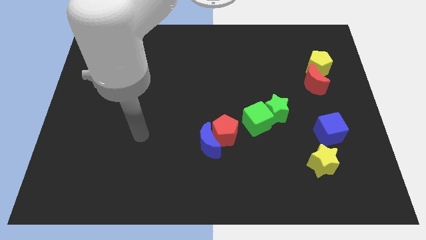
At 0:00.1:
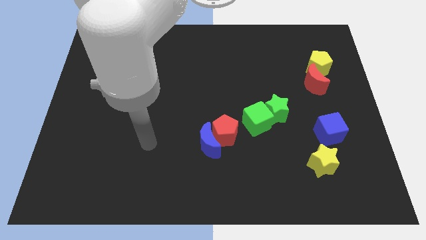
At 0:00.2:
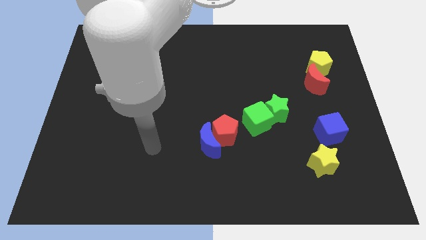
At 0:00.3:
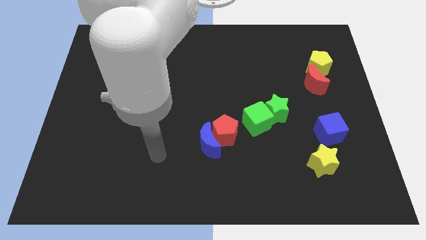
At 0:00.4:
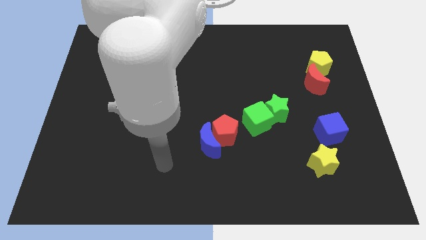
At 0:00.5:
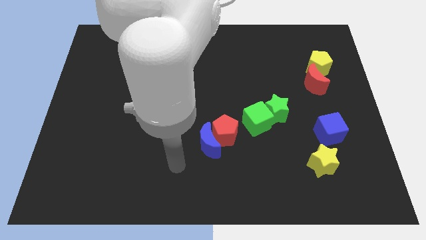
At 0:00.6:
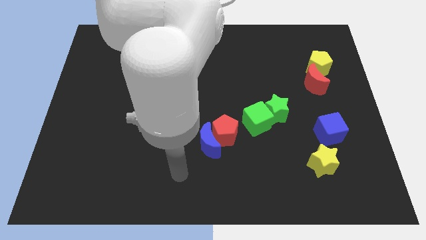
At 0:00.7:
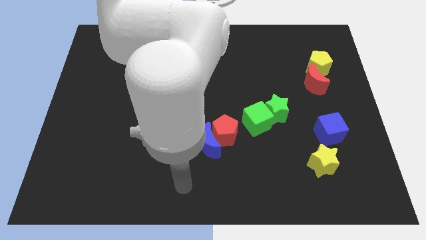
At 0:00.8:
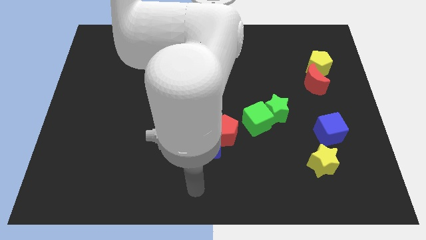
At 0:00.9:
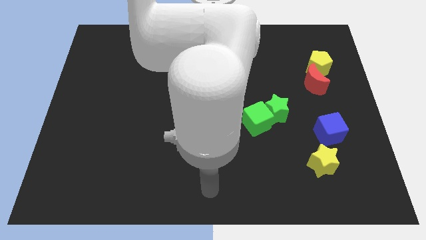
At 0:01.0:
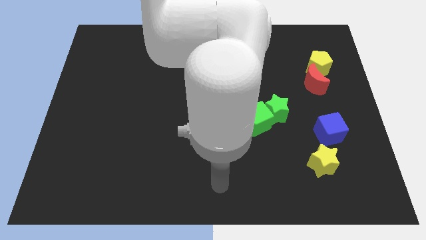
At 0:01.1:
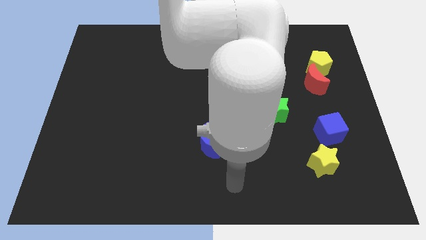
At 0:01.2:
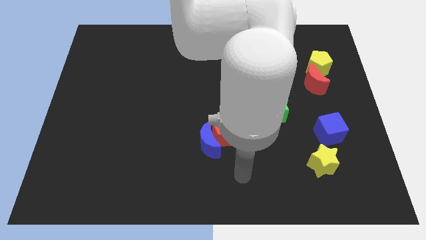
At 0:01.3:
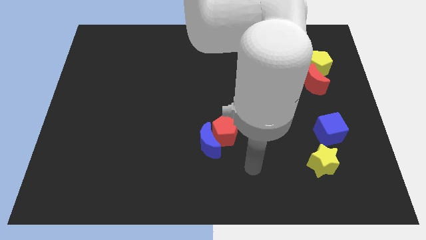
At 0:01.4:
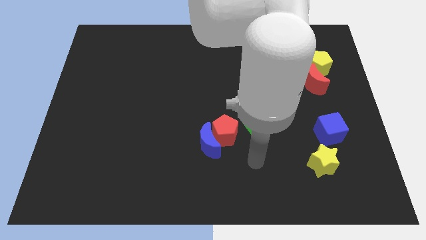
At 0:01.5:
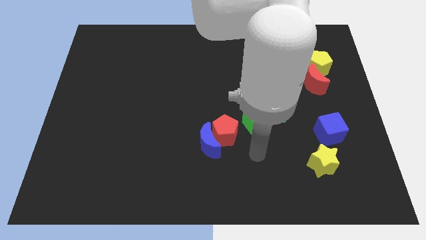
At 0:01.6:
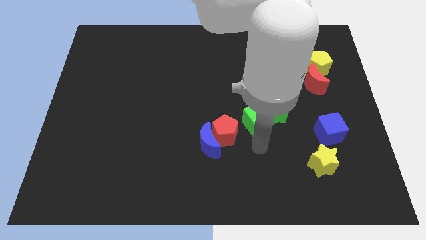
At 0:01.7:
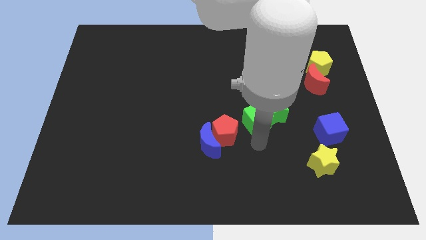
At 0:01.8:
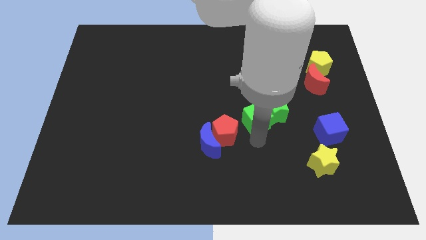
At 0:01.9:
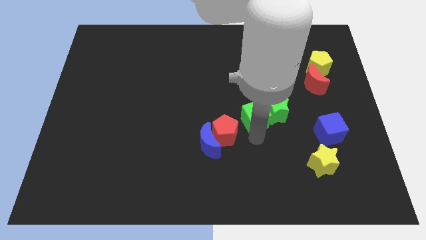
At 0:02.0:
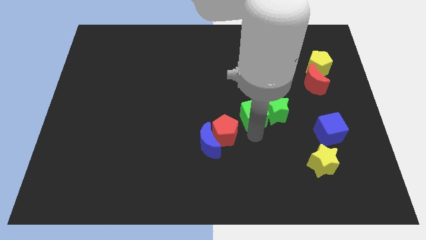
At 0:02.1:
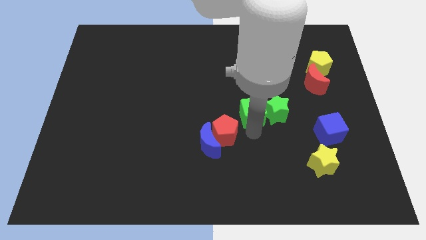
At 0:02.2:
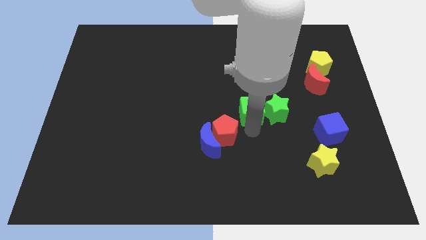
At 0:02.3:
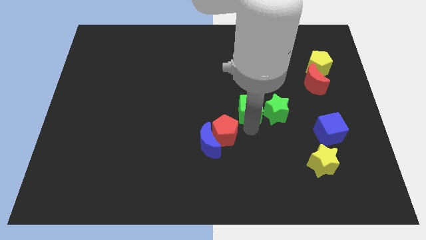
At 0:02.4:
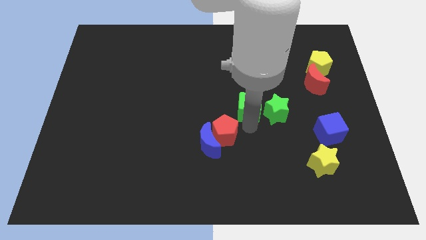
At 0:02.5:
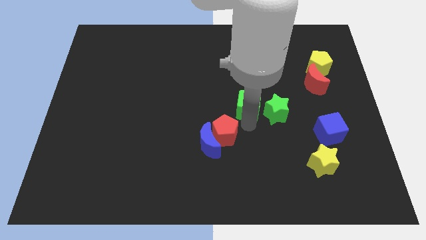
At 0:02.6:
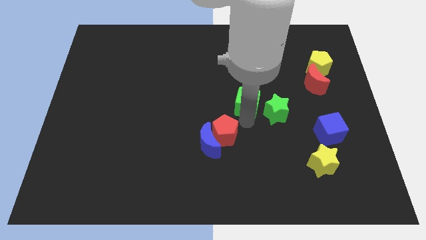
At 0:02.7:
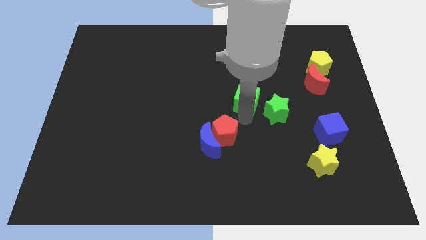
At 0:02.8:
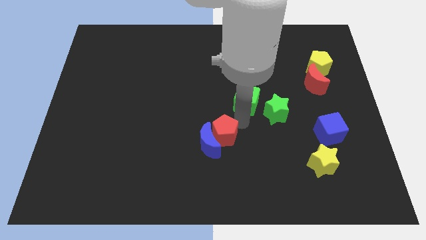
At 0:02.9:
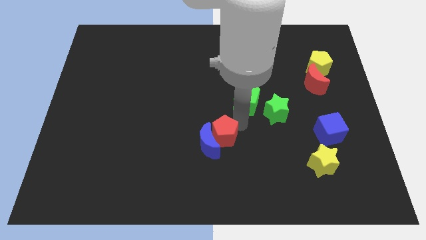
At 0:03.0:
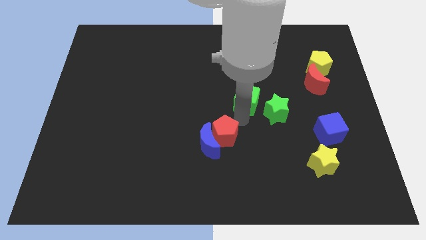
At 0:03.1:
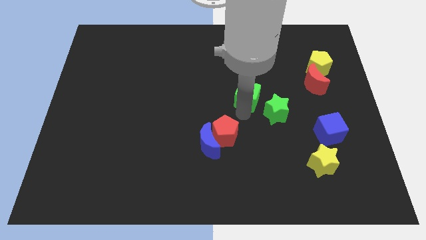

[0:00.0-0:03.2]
push the green cube upwards somewhat

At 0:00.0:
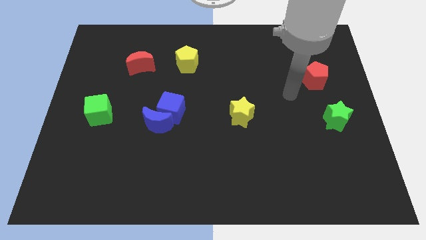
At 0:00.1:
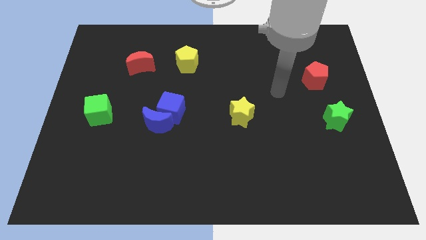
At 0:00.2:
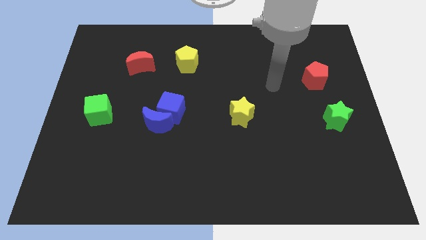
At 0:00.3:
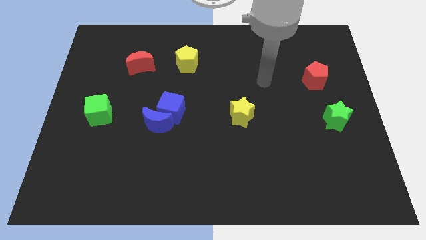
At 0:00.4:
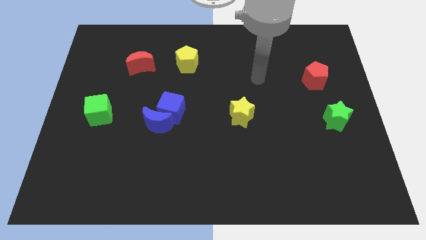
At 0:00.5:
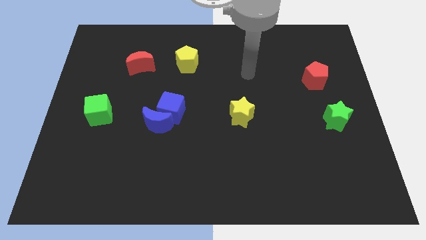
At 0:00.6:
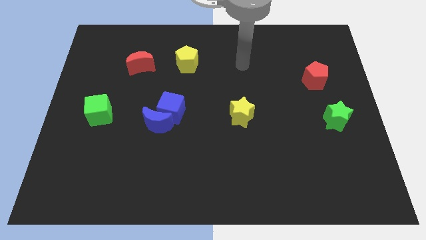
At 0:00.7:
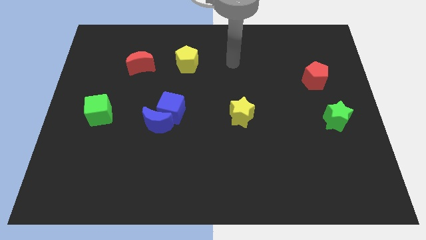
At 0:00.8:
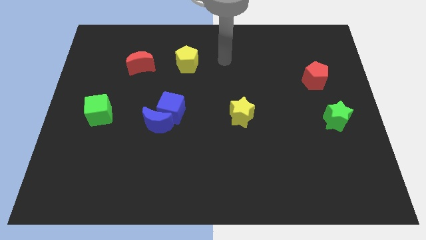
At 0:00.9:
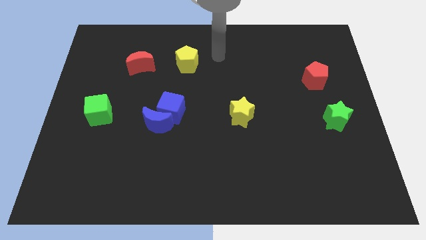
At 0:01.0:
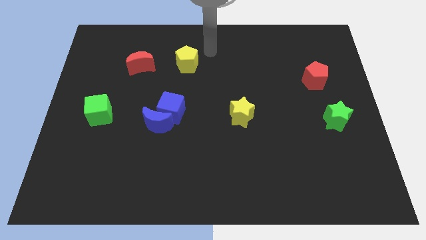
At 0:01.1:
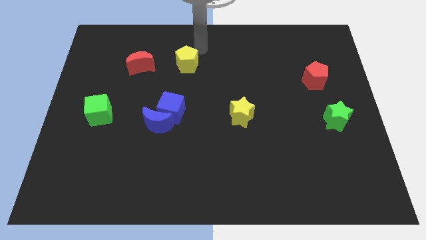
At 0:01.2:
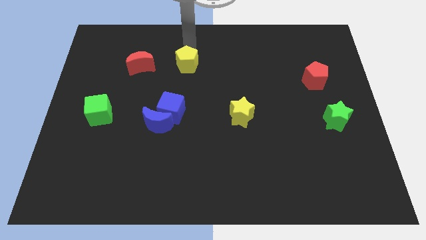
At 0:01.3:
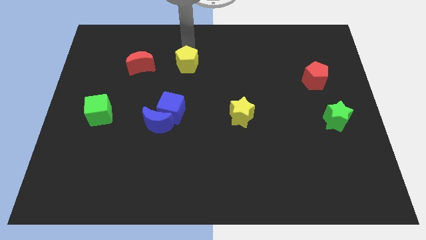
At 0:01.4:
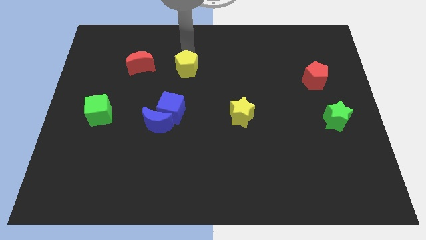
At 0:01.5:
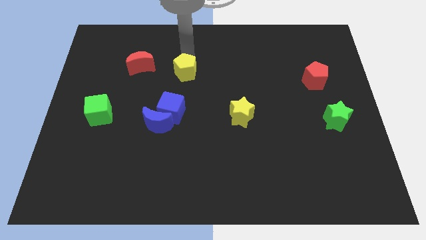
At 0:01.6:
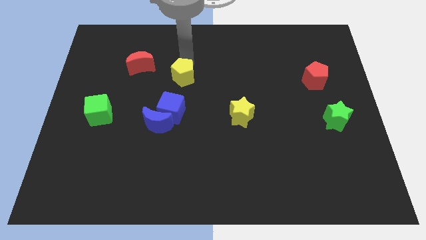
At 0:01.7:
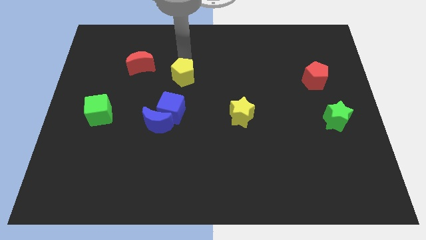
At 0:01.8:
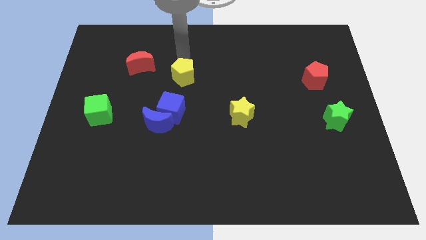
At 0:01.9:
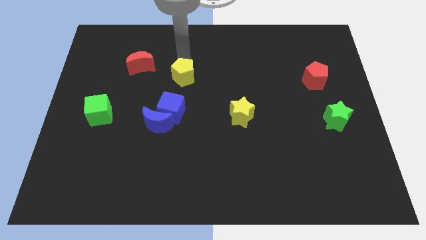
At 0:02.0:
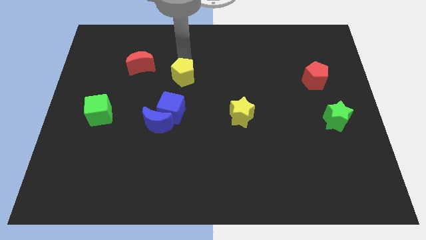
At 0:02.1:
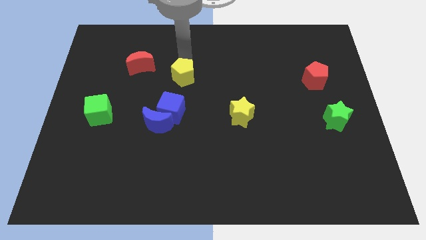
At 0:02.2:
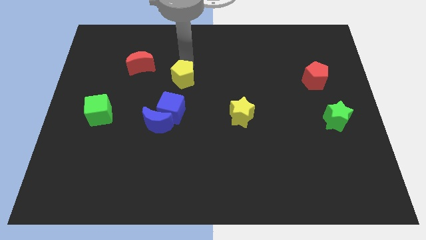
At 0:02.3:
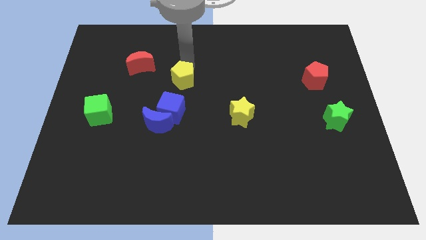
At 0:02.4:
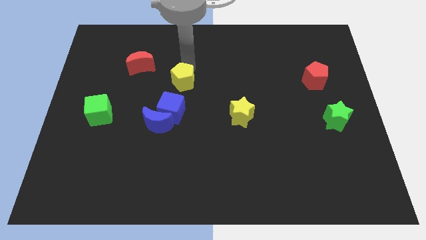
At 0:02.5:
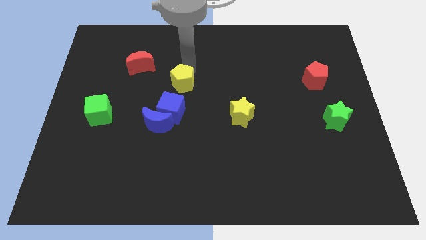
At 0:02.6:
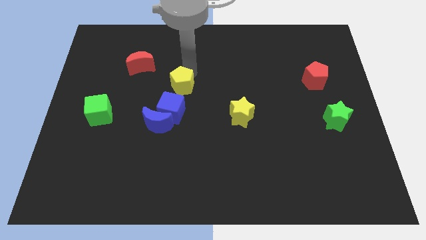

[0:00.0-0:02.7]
slightly slide the yellow pentagon down

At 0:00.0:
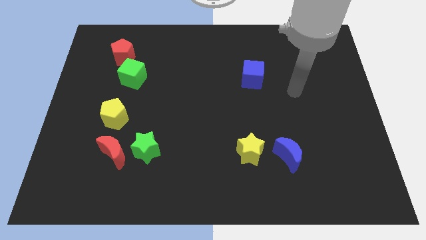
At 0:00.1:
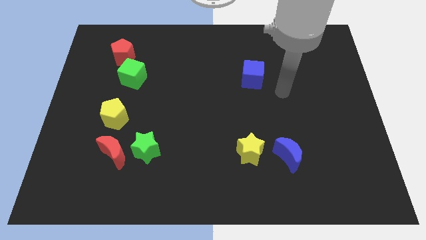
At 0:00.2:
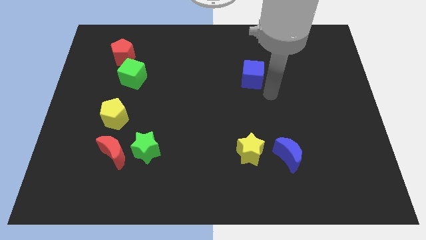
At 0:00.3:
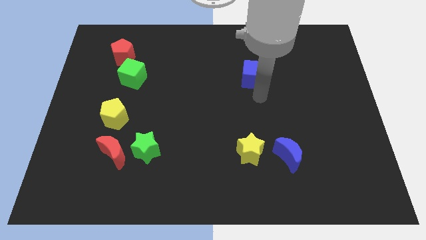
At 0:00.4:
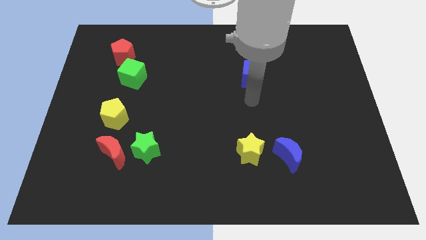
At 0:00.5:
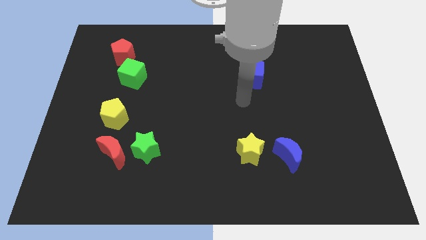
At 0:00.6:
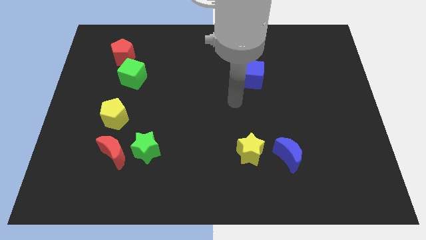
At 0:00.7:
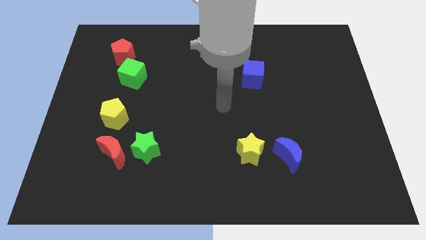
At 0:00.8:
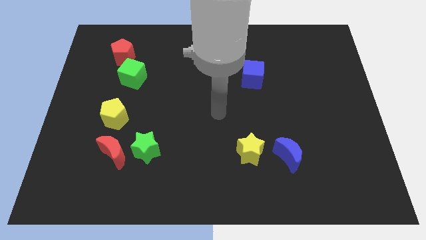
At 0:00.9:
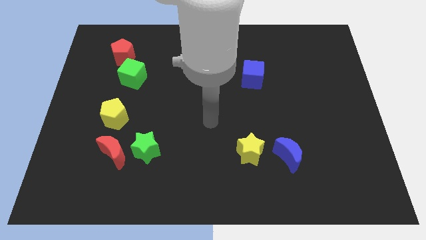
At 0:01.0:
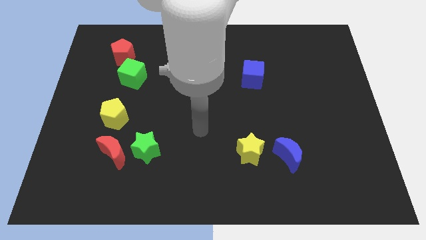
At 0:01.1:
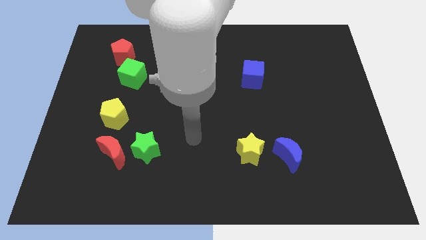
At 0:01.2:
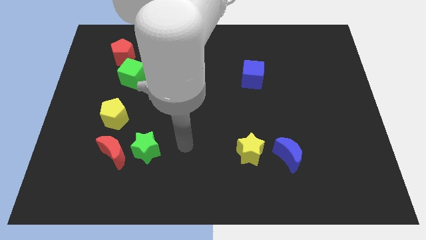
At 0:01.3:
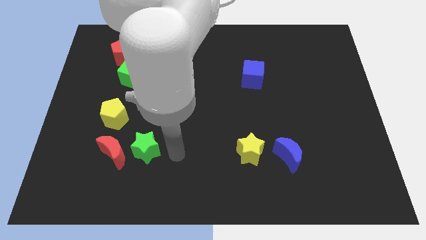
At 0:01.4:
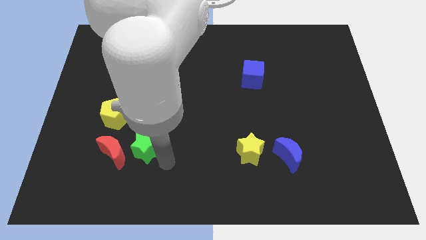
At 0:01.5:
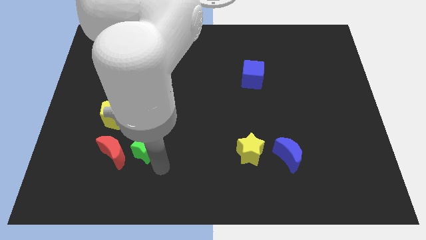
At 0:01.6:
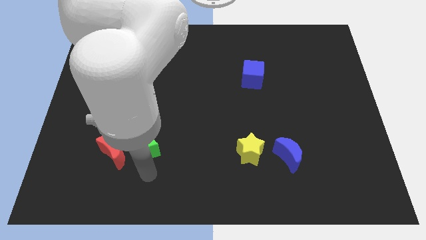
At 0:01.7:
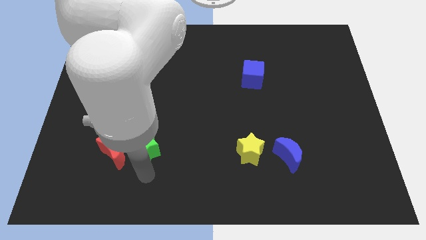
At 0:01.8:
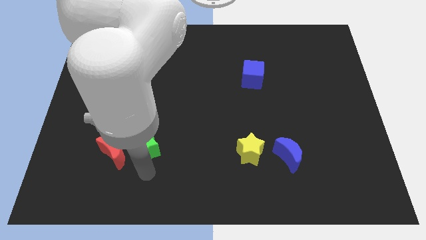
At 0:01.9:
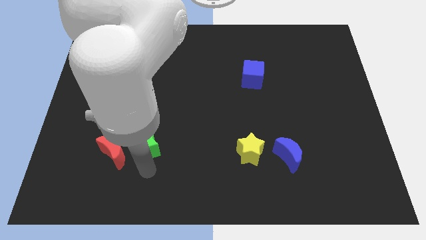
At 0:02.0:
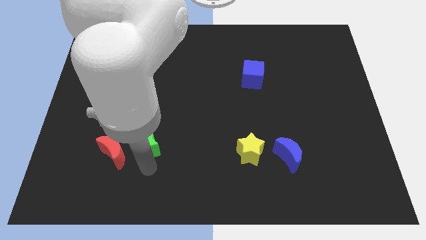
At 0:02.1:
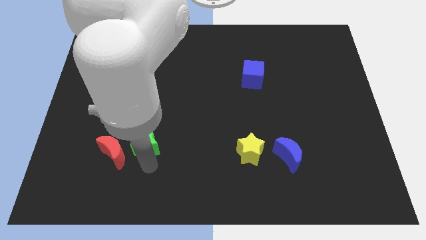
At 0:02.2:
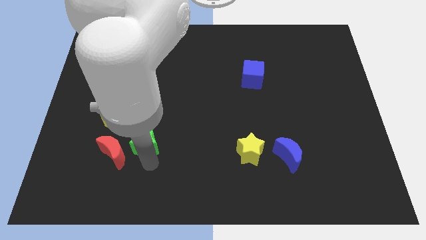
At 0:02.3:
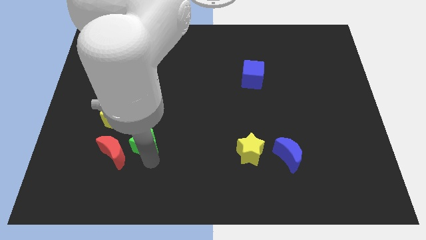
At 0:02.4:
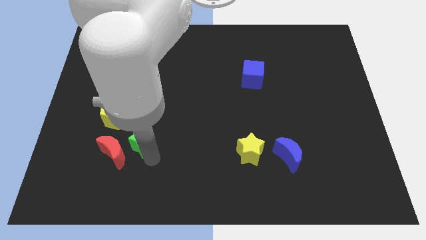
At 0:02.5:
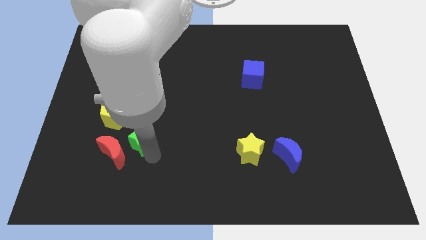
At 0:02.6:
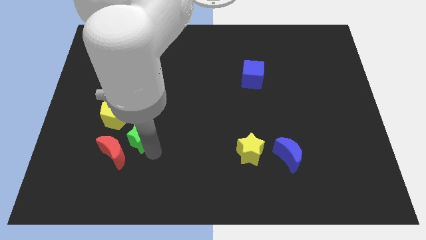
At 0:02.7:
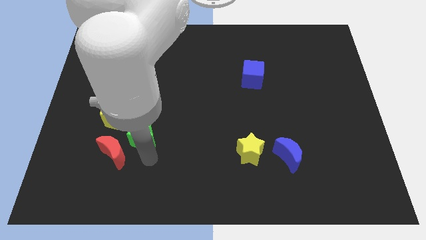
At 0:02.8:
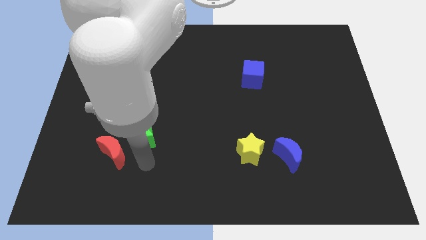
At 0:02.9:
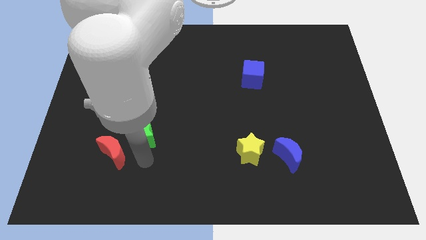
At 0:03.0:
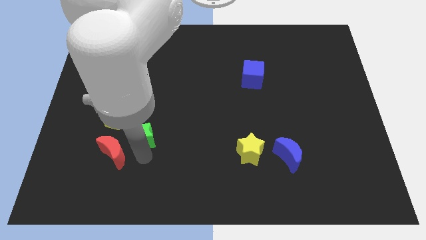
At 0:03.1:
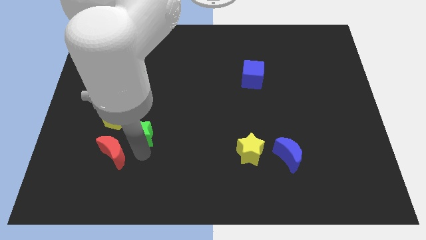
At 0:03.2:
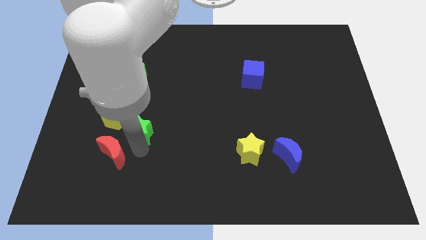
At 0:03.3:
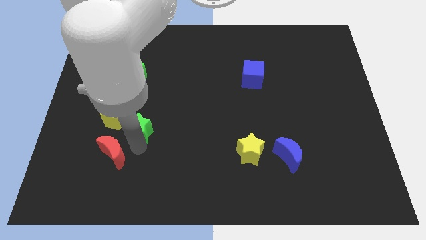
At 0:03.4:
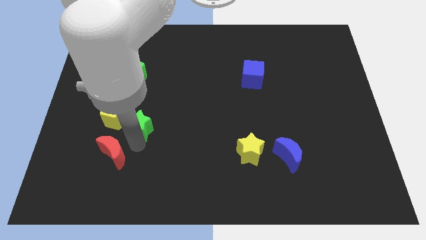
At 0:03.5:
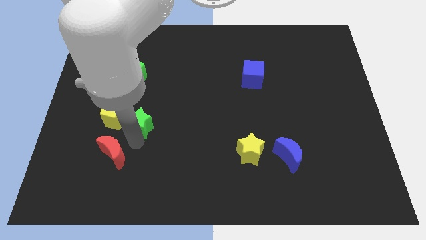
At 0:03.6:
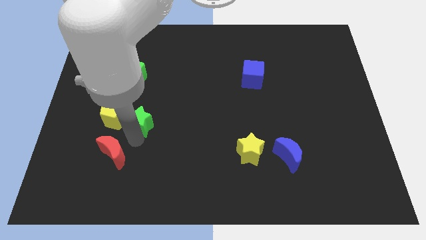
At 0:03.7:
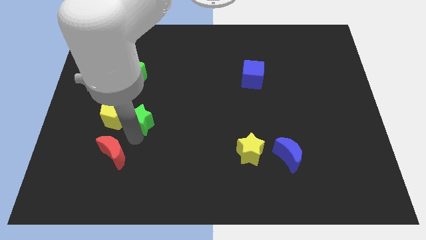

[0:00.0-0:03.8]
slide the green star upwards slightly
